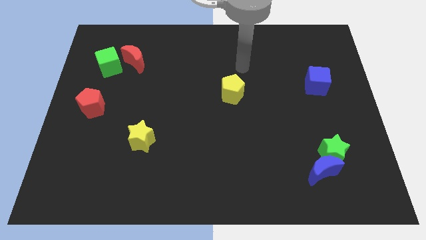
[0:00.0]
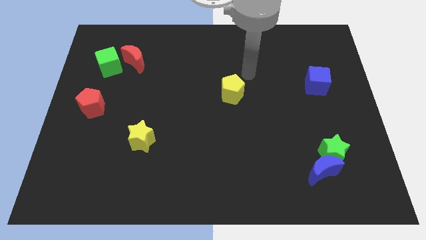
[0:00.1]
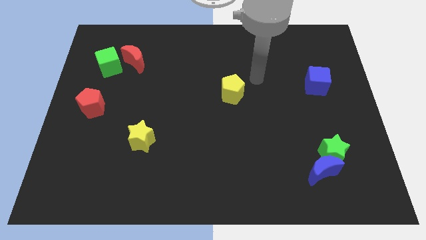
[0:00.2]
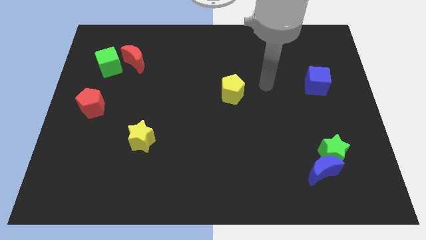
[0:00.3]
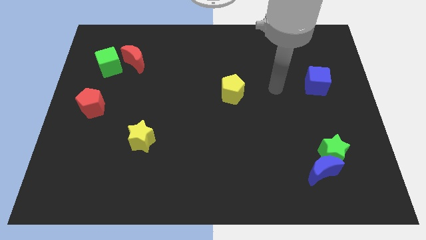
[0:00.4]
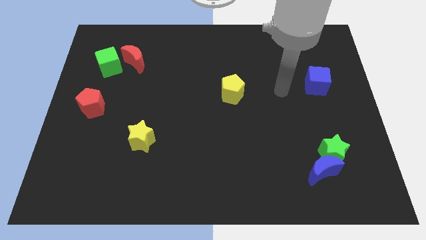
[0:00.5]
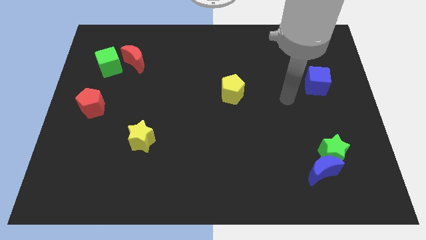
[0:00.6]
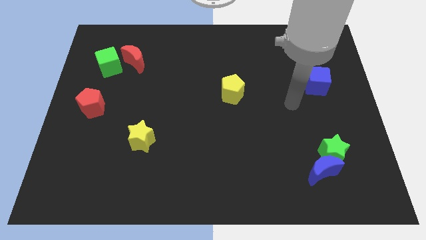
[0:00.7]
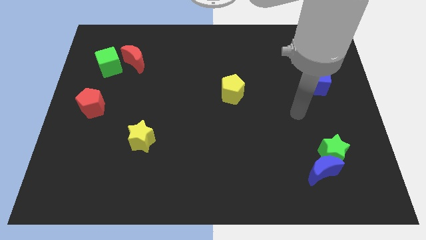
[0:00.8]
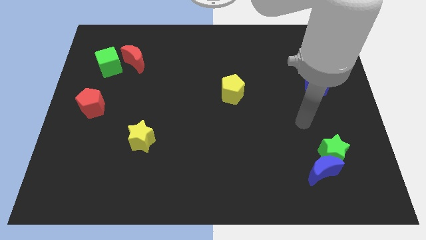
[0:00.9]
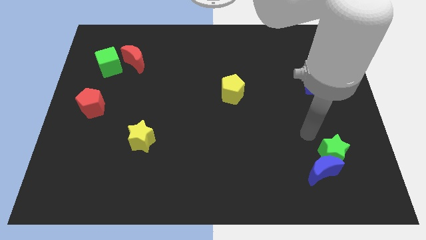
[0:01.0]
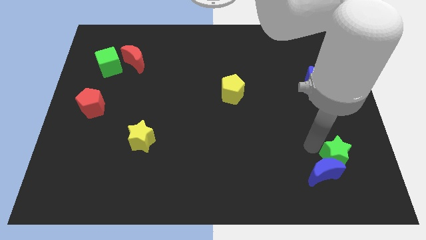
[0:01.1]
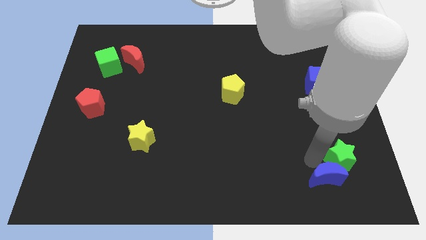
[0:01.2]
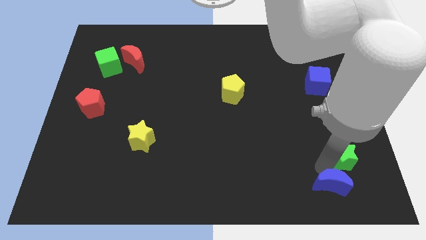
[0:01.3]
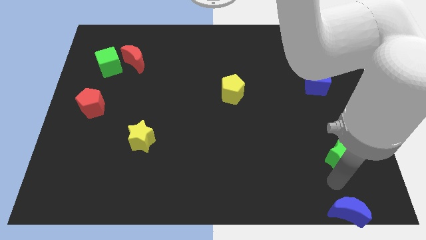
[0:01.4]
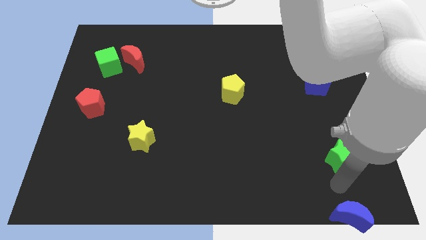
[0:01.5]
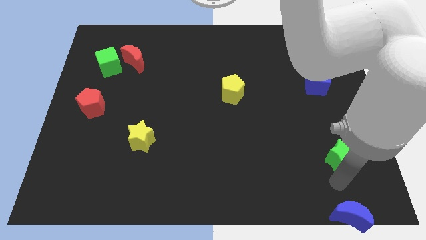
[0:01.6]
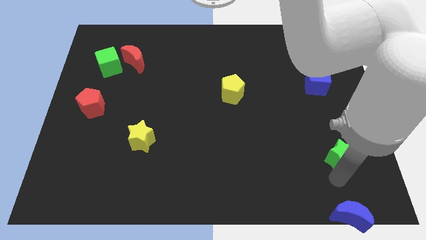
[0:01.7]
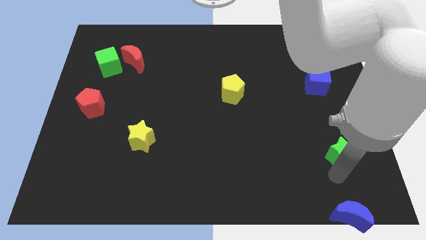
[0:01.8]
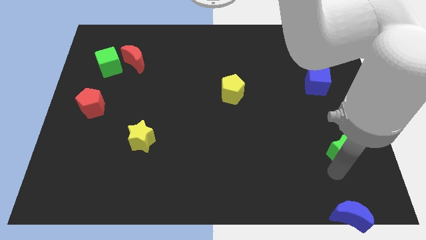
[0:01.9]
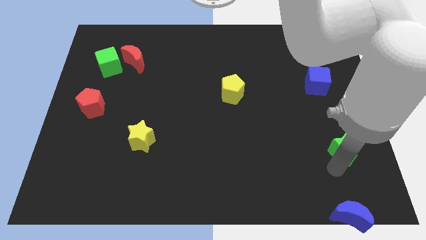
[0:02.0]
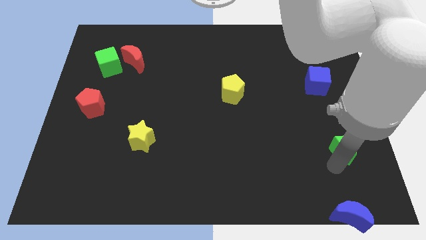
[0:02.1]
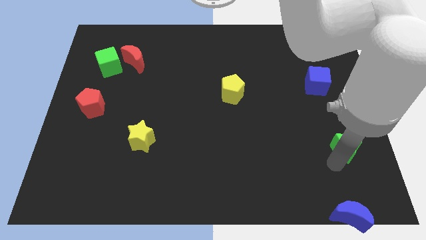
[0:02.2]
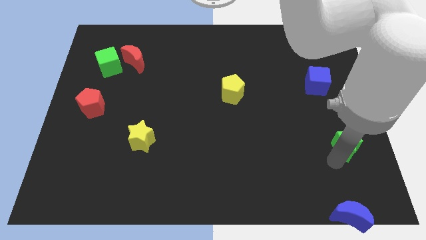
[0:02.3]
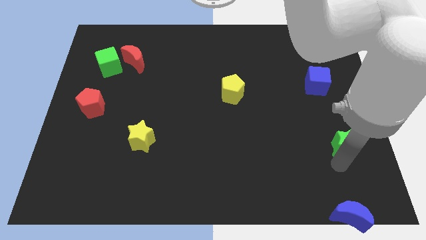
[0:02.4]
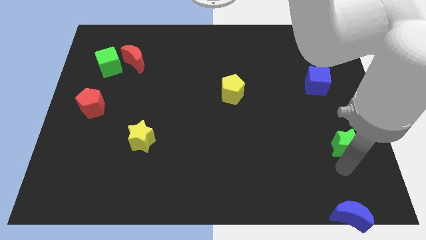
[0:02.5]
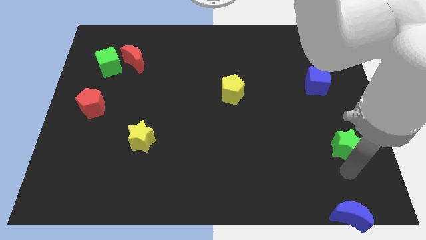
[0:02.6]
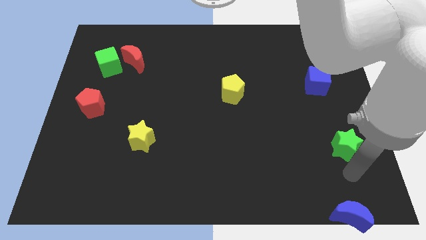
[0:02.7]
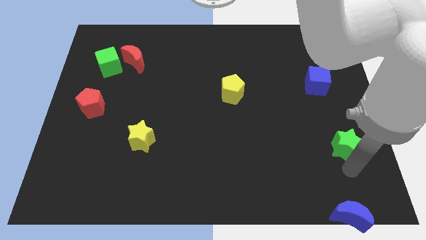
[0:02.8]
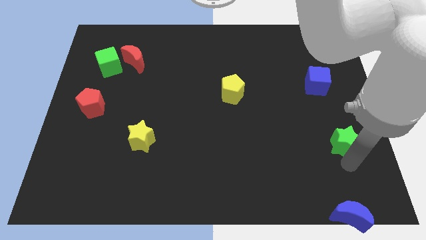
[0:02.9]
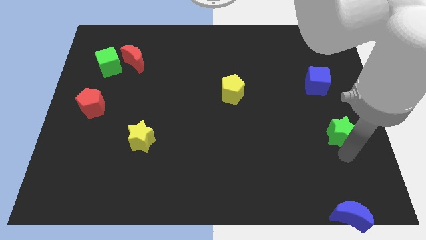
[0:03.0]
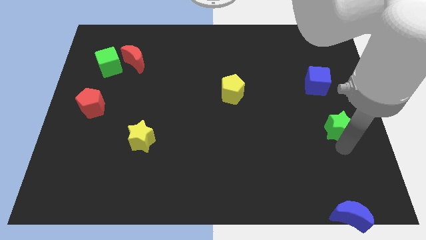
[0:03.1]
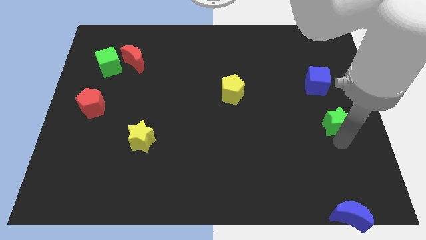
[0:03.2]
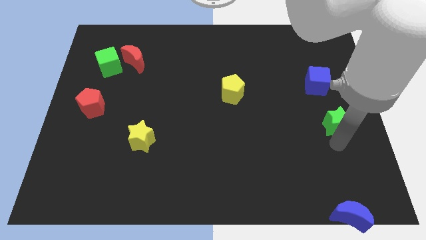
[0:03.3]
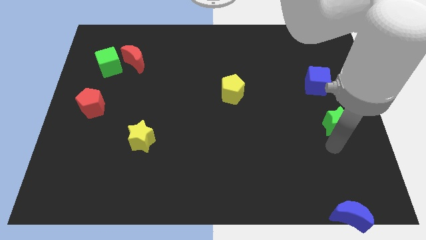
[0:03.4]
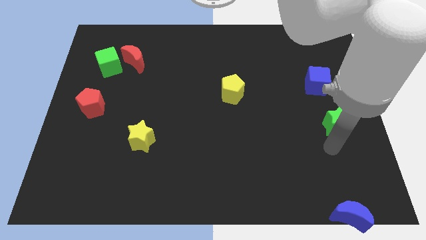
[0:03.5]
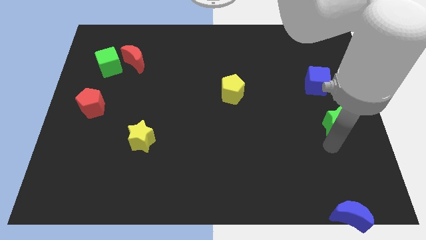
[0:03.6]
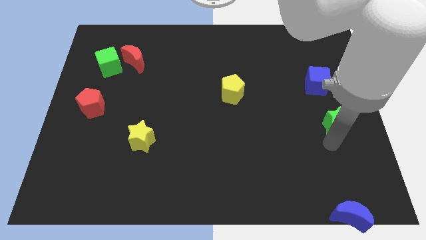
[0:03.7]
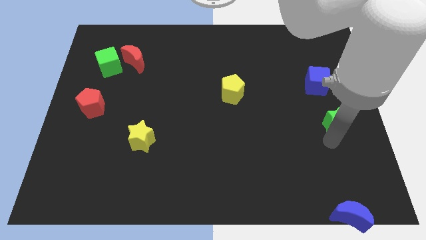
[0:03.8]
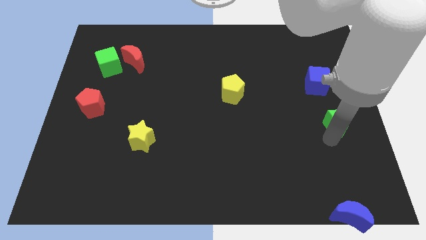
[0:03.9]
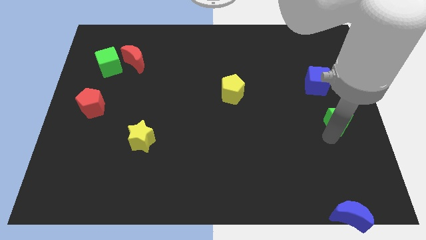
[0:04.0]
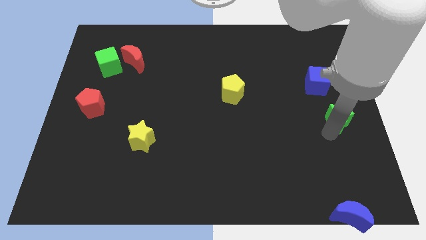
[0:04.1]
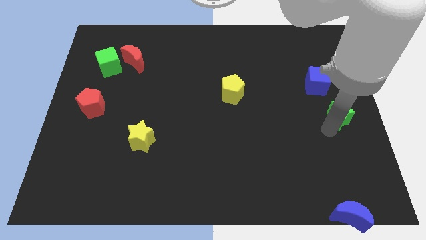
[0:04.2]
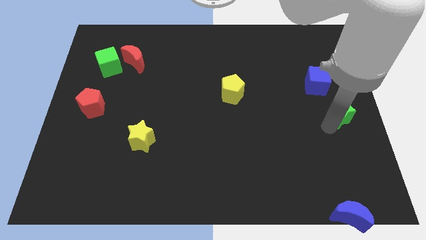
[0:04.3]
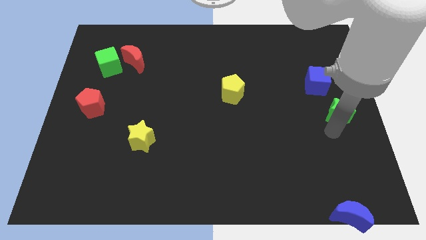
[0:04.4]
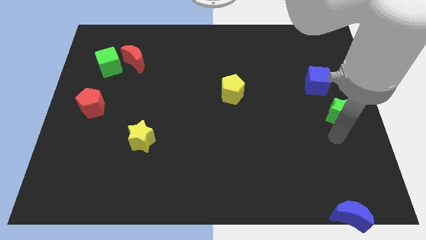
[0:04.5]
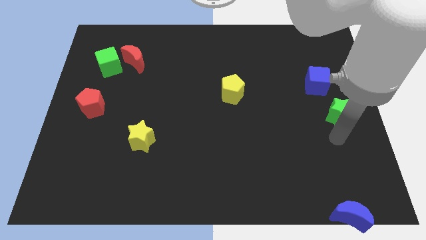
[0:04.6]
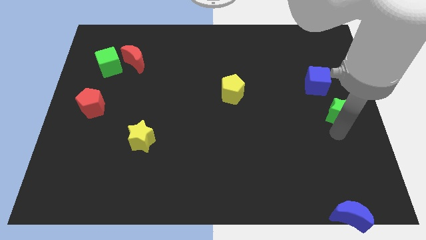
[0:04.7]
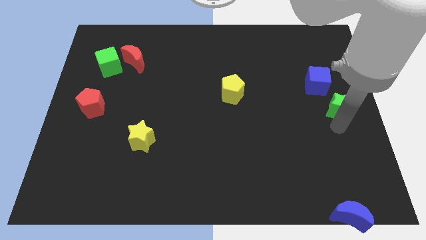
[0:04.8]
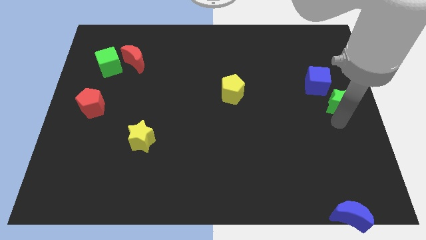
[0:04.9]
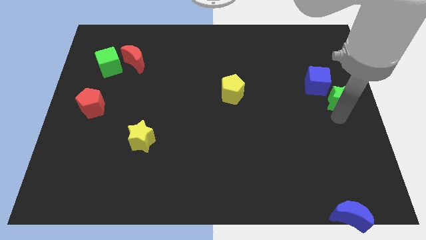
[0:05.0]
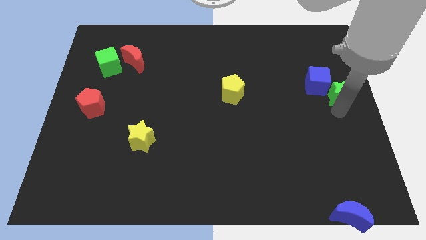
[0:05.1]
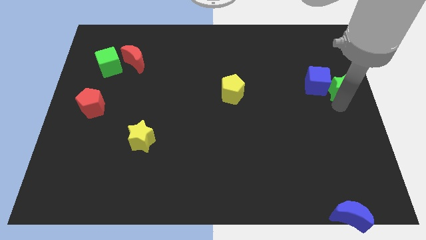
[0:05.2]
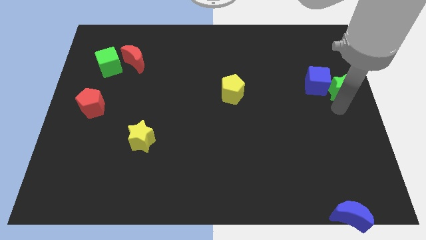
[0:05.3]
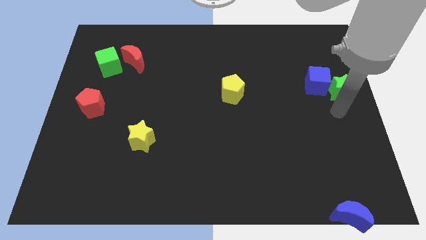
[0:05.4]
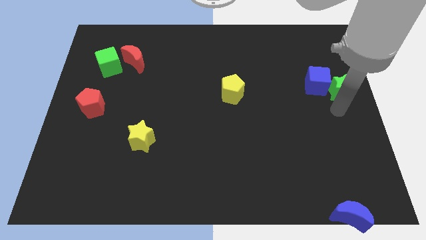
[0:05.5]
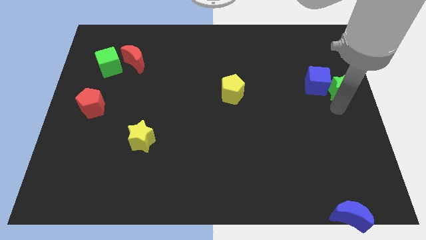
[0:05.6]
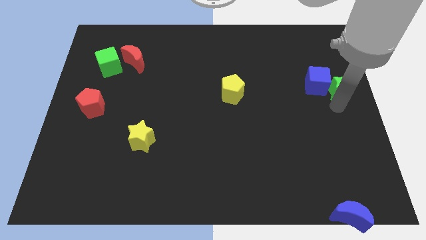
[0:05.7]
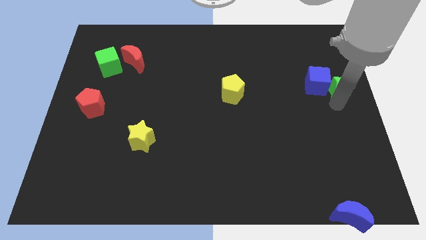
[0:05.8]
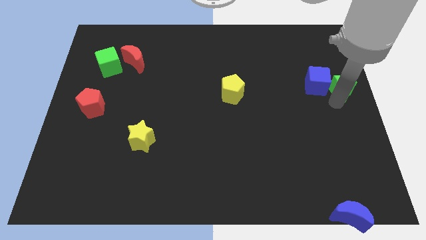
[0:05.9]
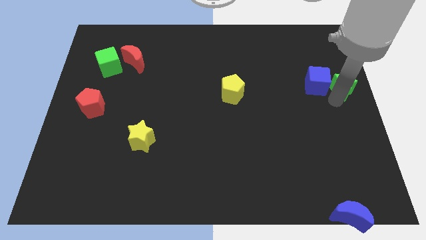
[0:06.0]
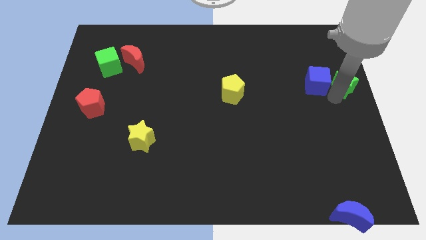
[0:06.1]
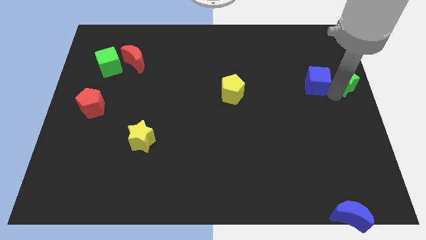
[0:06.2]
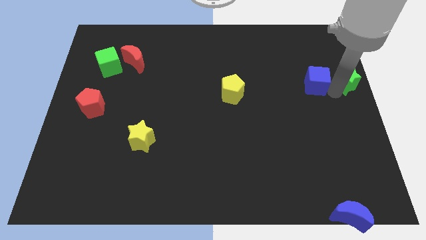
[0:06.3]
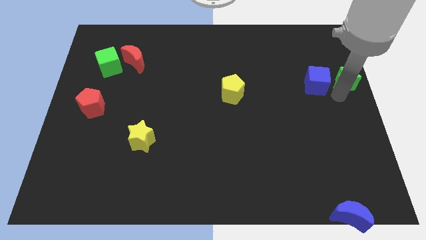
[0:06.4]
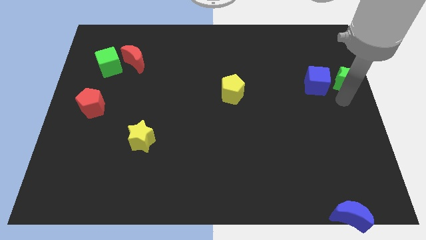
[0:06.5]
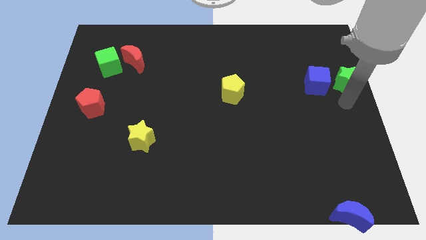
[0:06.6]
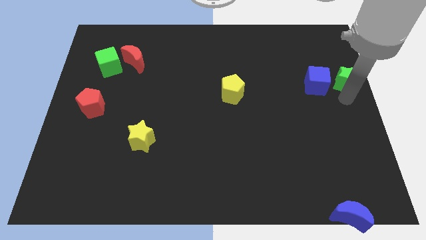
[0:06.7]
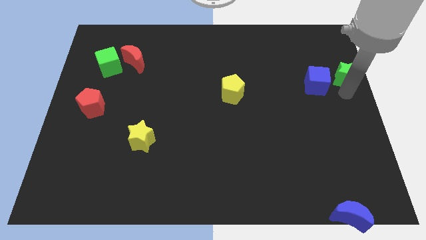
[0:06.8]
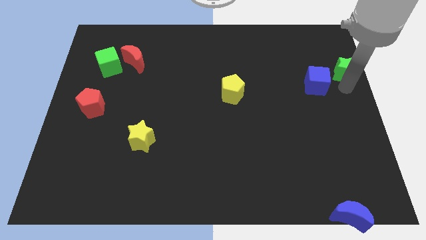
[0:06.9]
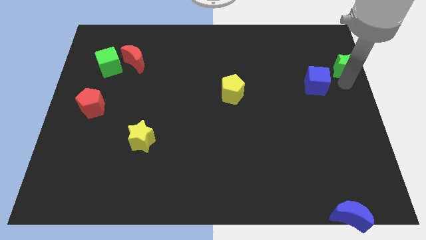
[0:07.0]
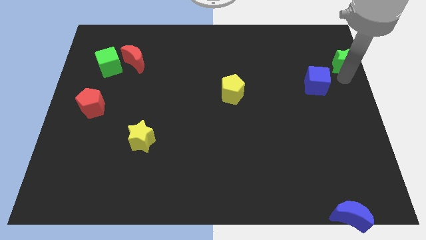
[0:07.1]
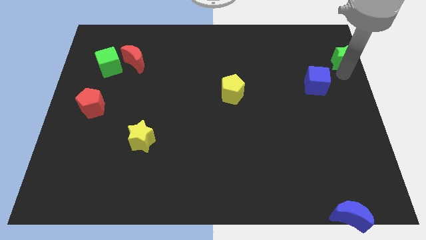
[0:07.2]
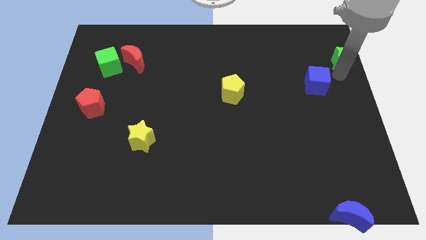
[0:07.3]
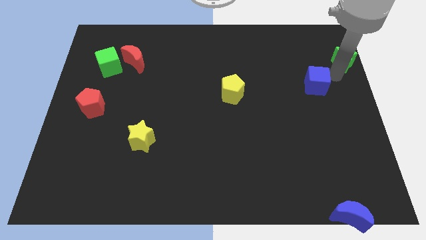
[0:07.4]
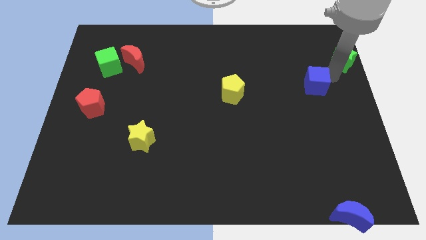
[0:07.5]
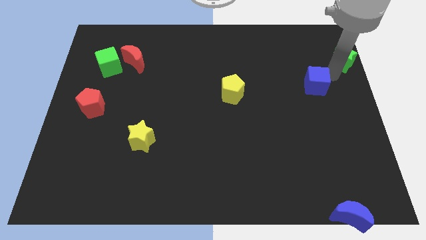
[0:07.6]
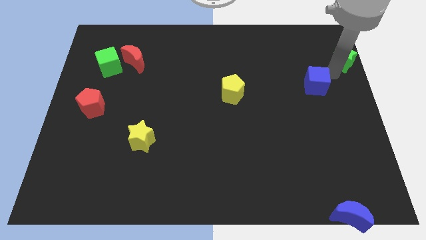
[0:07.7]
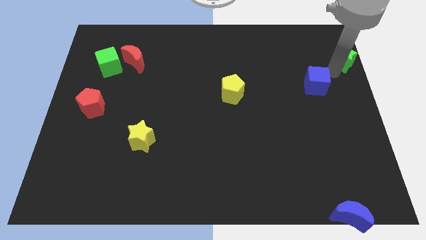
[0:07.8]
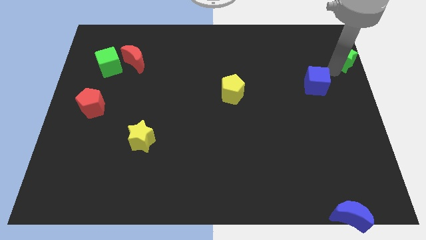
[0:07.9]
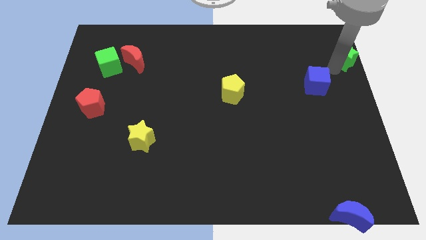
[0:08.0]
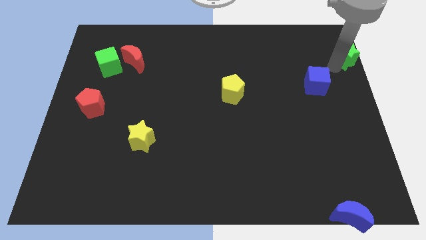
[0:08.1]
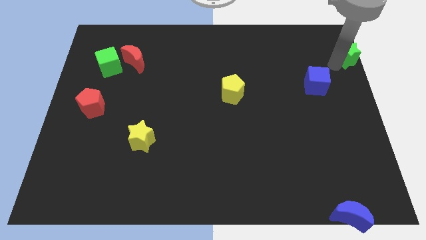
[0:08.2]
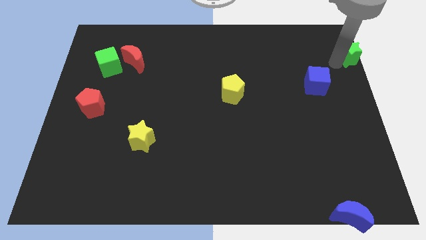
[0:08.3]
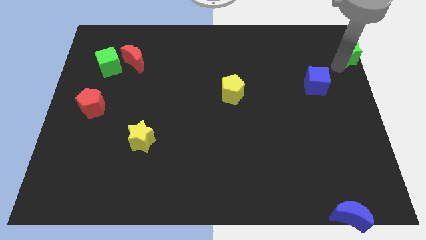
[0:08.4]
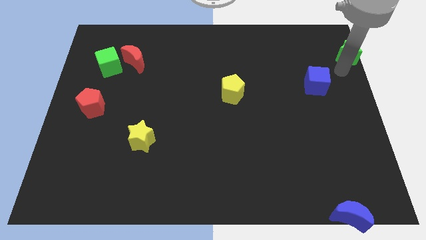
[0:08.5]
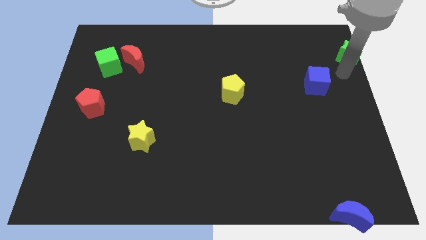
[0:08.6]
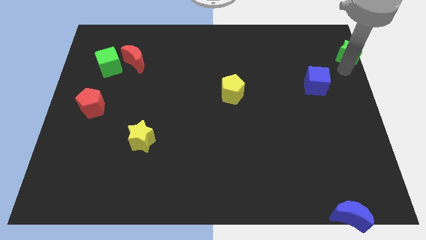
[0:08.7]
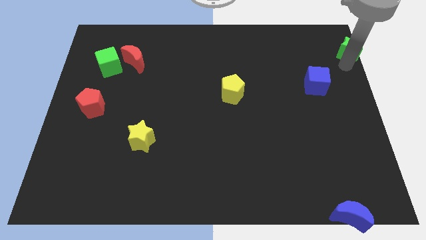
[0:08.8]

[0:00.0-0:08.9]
slide the green star to the top right corner
